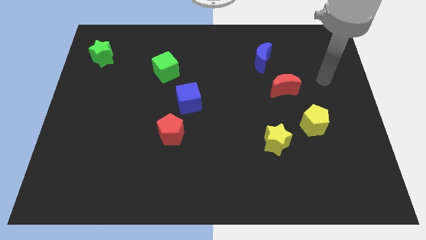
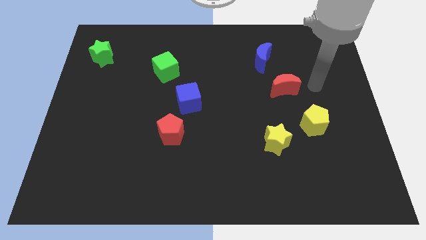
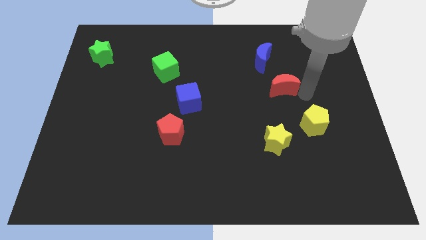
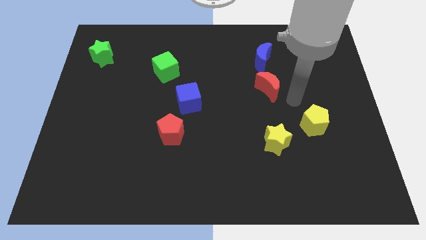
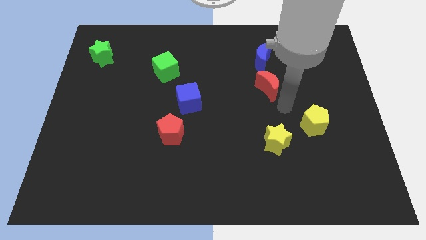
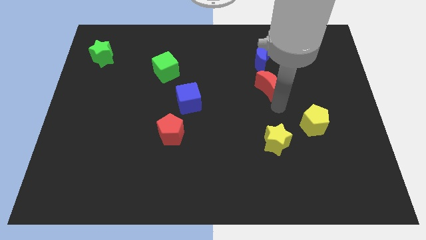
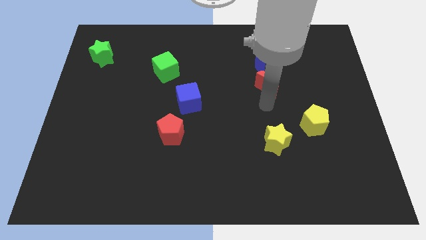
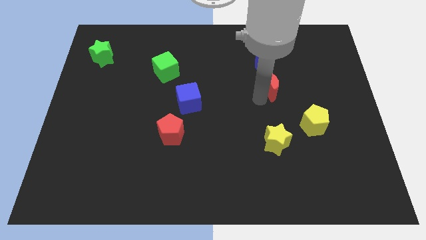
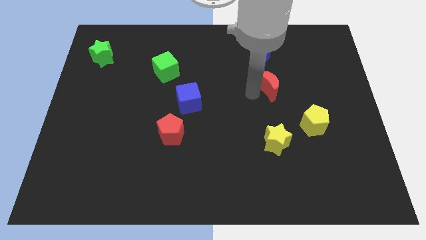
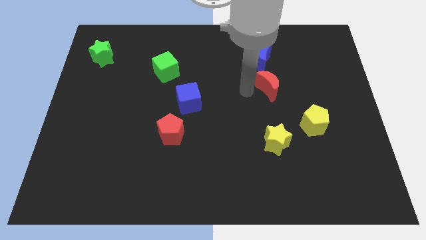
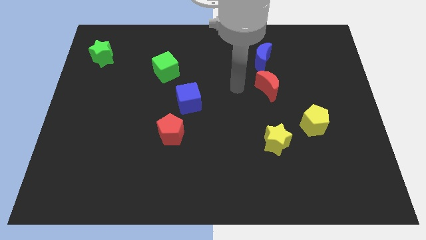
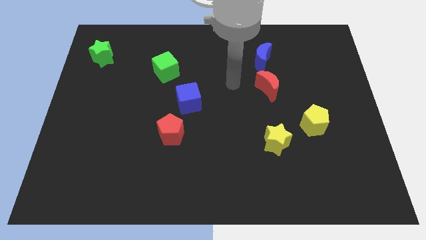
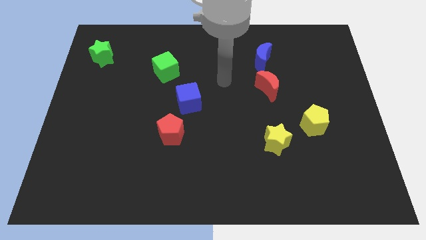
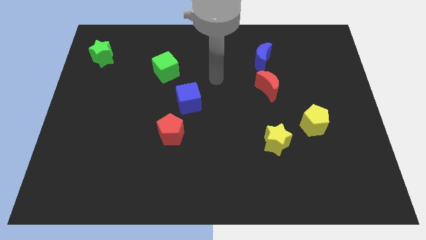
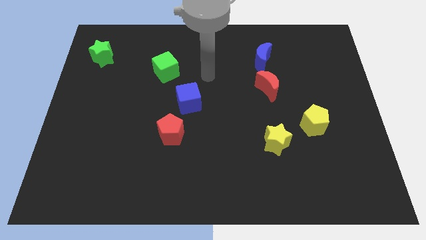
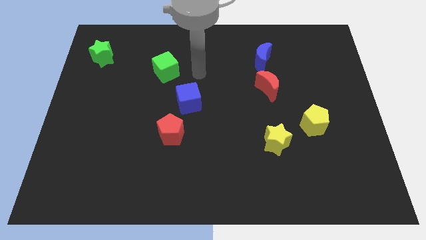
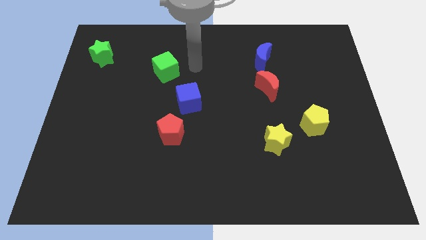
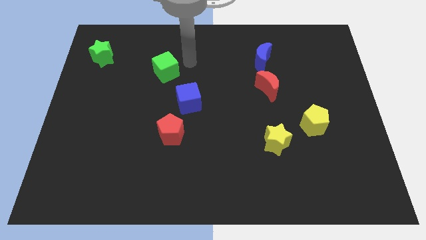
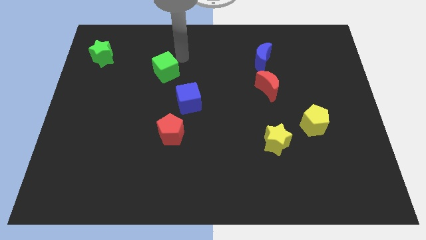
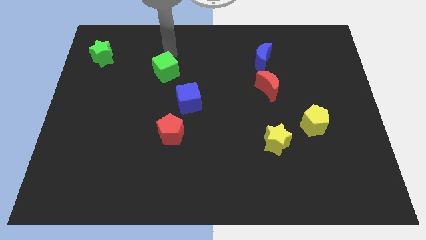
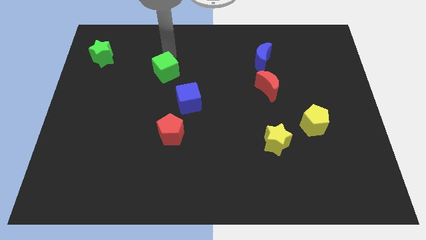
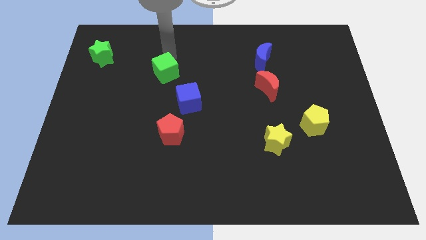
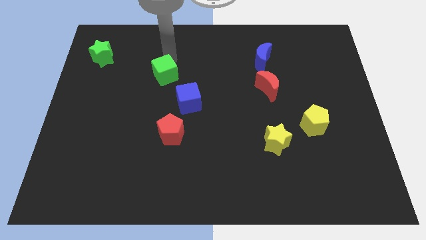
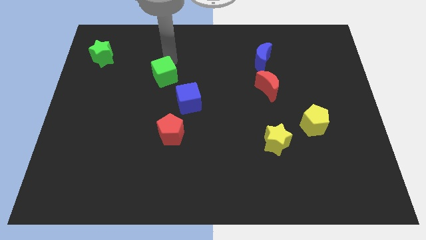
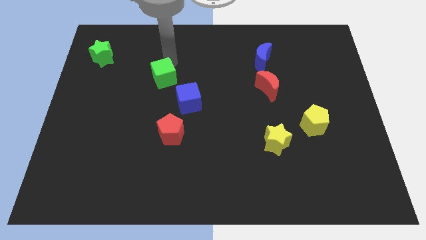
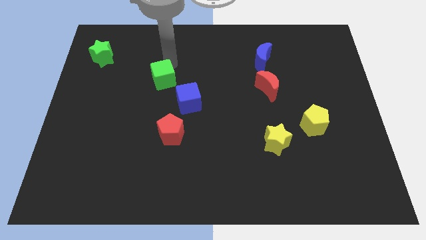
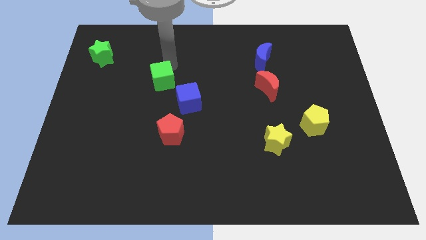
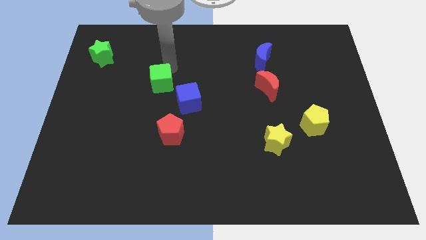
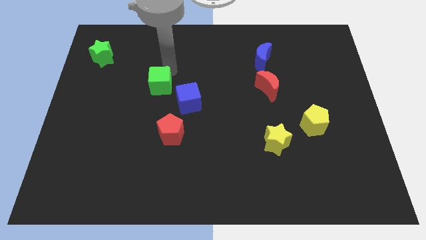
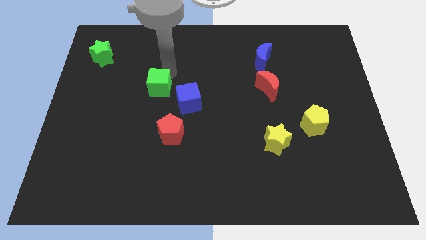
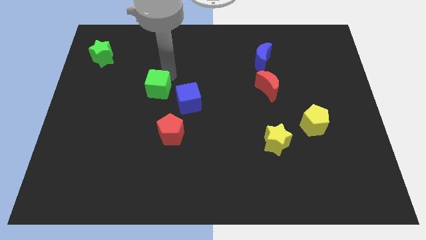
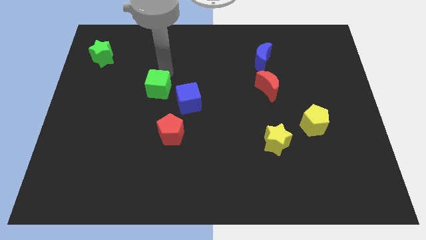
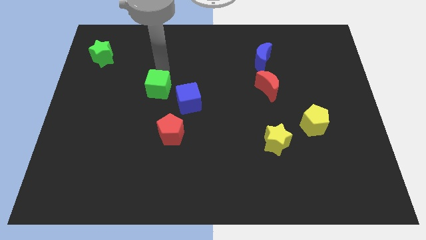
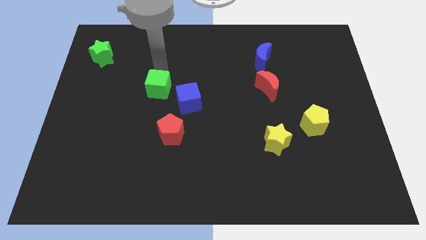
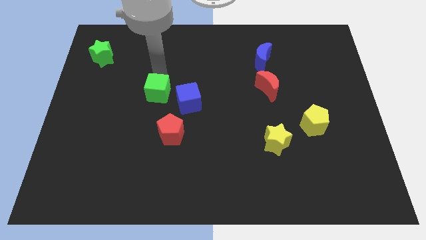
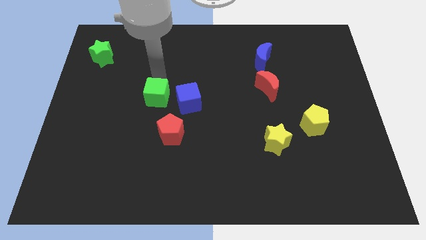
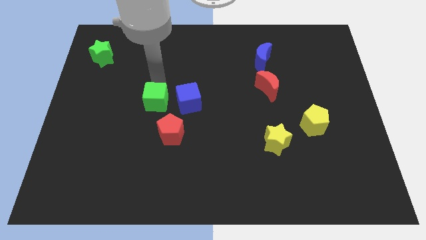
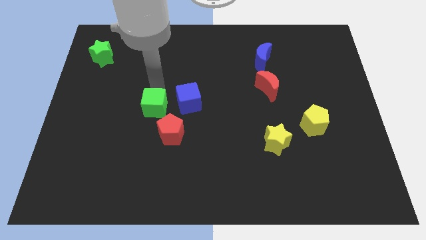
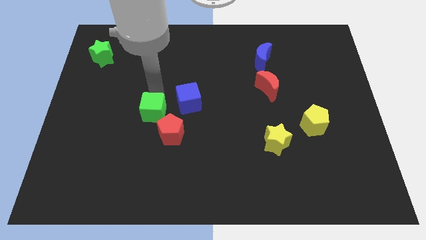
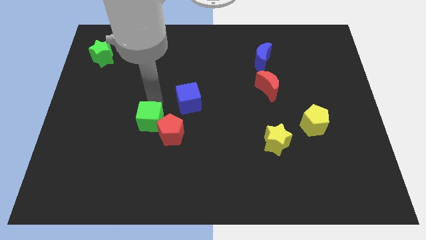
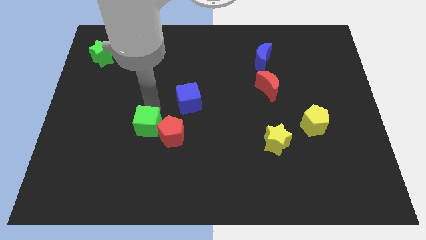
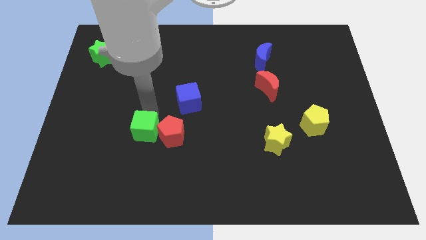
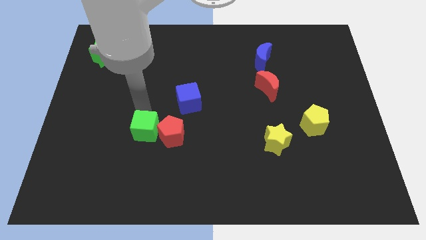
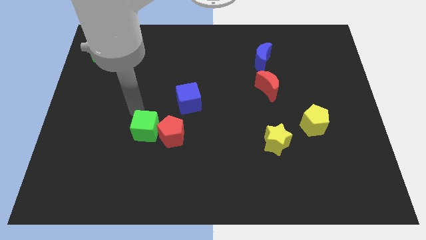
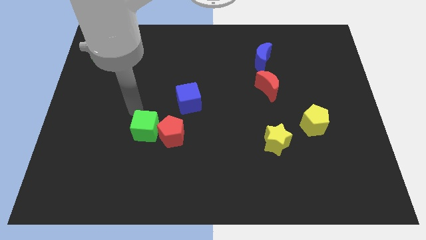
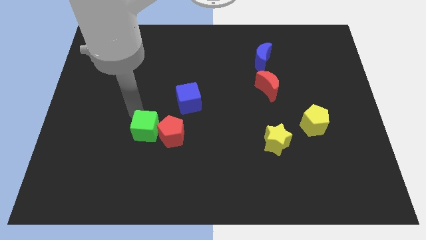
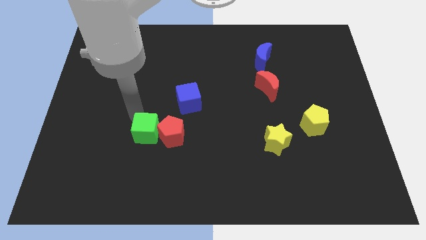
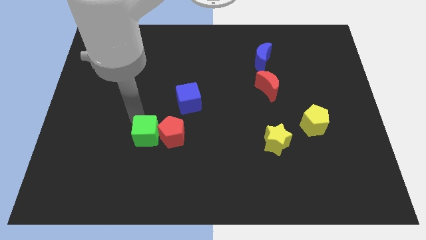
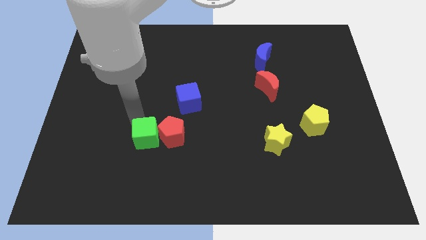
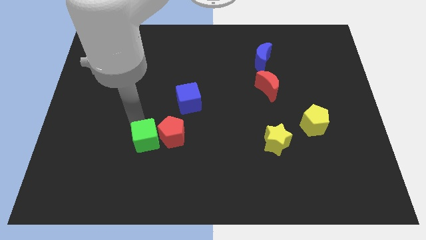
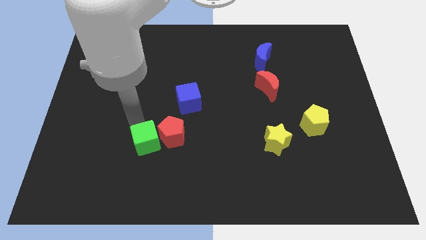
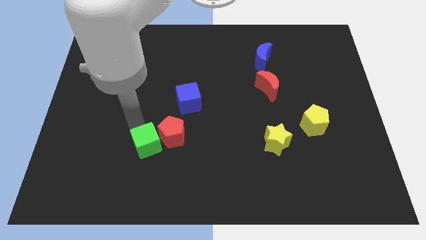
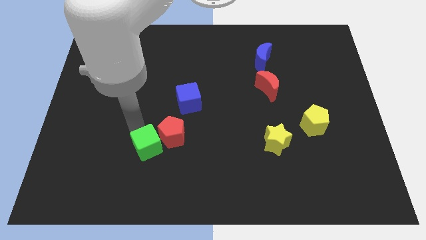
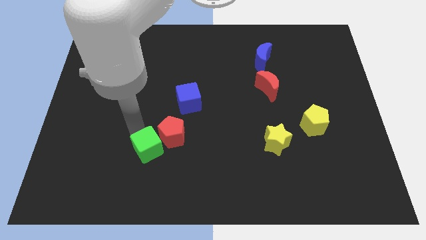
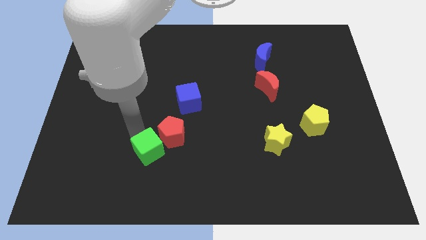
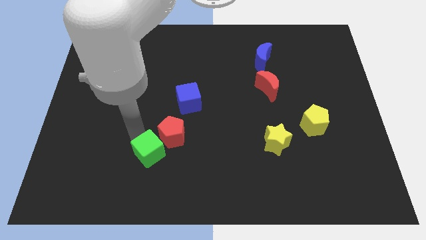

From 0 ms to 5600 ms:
move the green cube to the bottom of the red pentagon

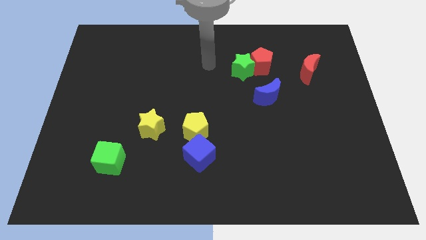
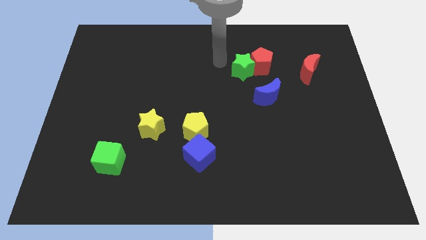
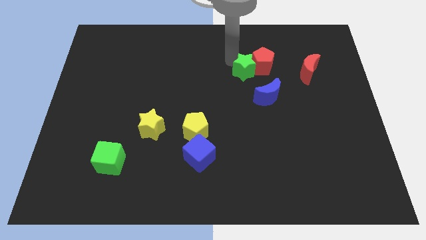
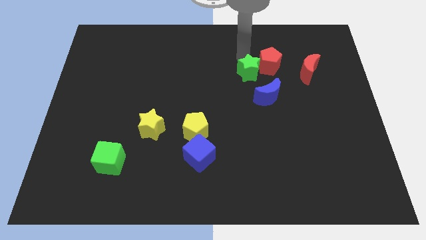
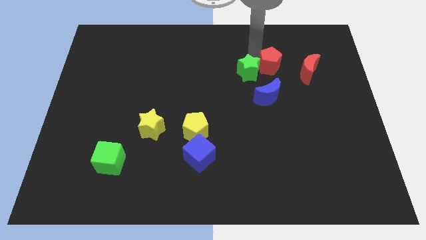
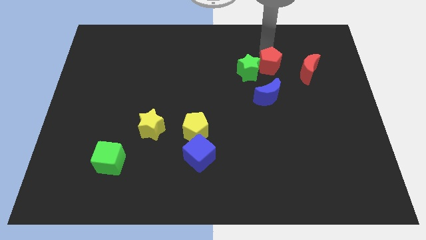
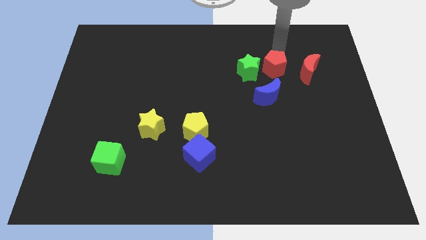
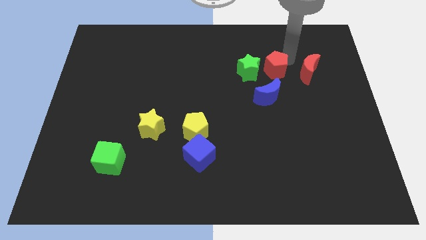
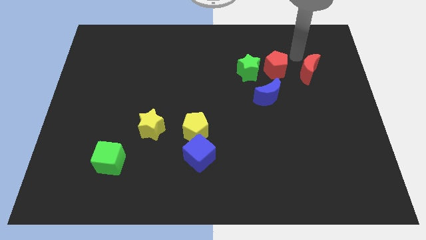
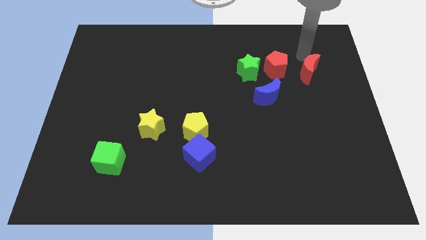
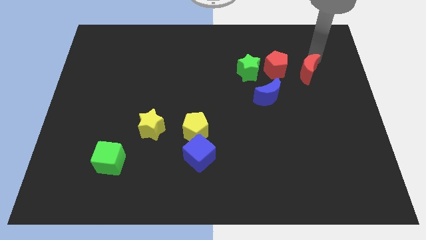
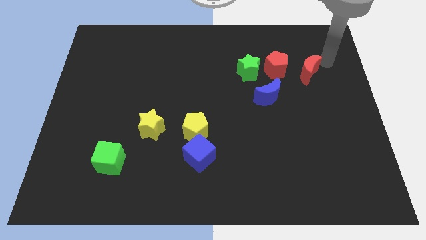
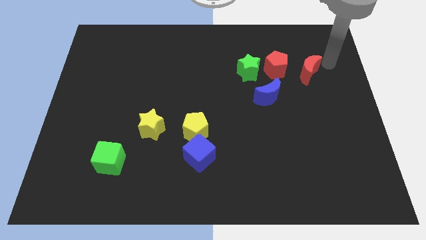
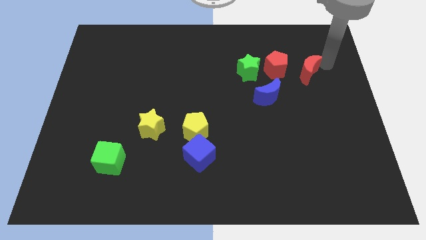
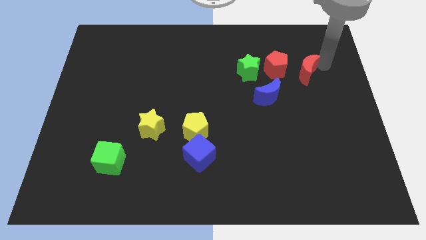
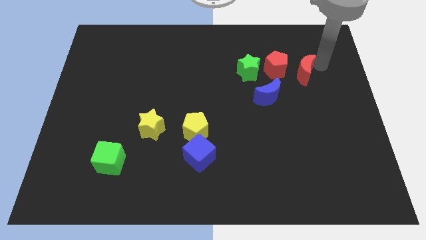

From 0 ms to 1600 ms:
move the red moon to the top right side of the blue moon
